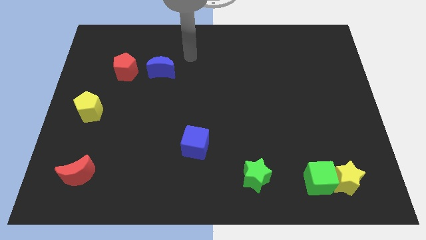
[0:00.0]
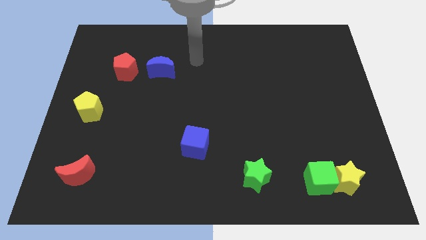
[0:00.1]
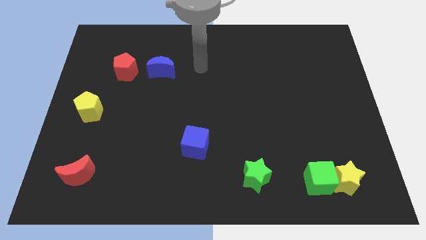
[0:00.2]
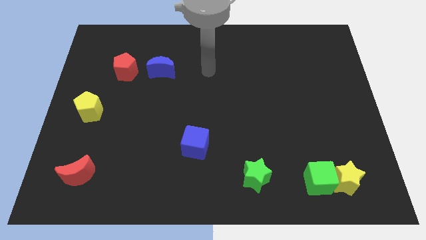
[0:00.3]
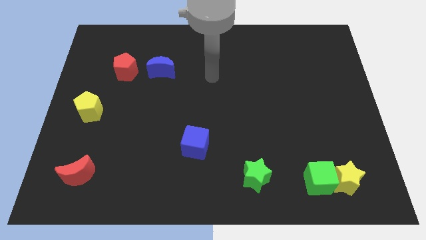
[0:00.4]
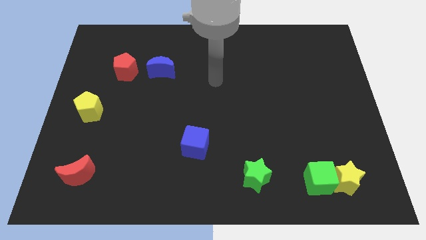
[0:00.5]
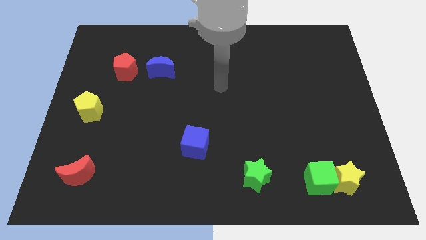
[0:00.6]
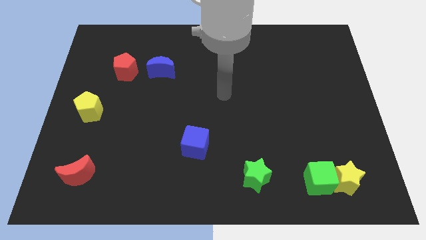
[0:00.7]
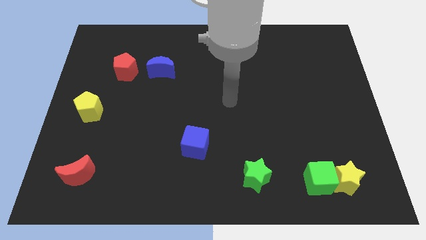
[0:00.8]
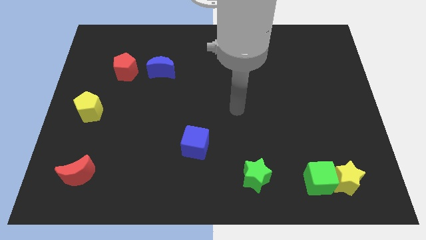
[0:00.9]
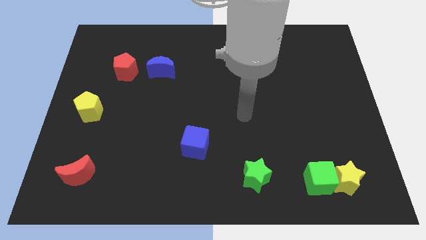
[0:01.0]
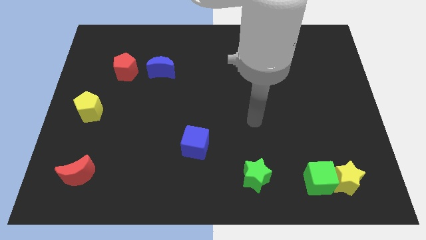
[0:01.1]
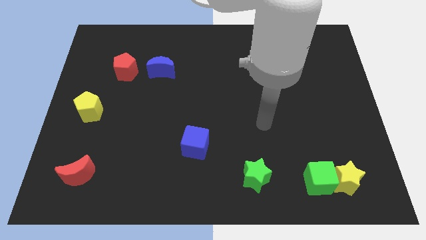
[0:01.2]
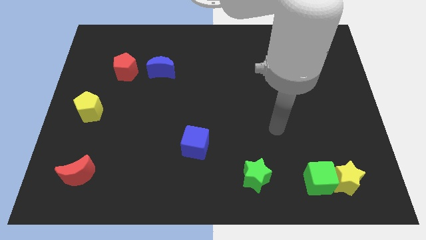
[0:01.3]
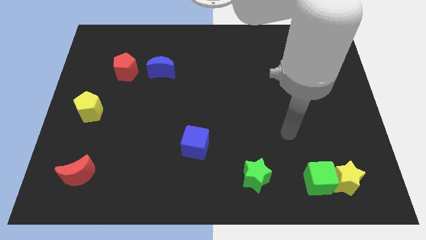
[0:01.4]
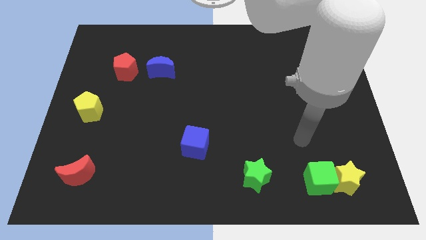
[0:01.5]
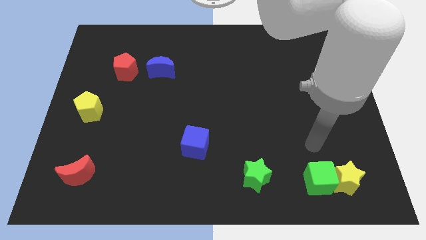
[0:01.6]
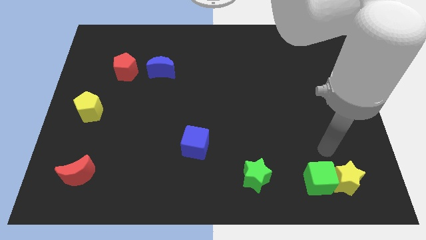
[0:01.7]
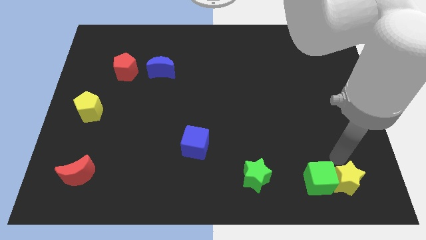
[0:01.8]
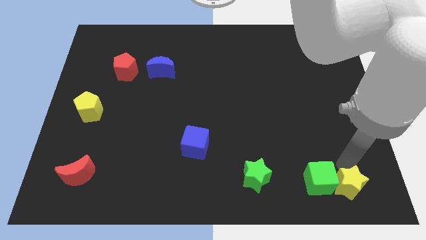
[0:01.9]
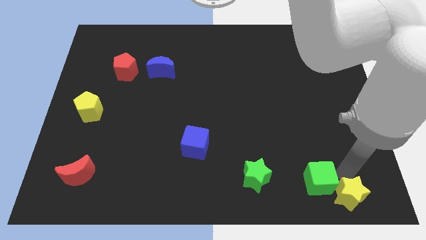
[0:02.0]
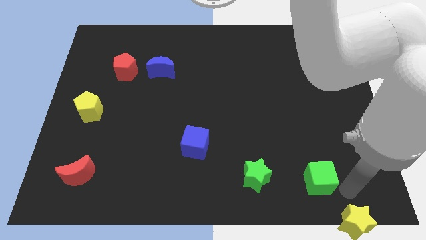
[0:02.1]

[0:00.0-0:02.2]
move the green cube away from the yellow star

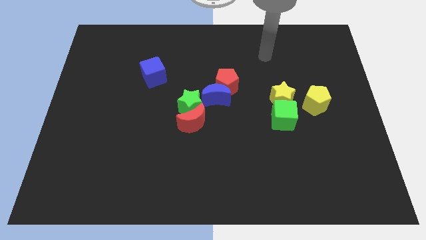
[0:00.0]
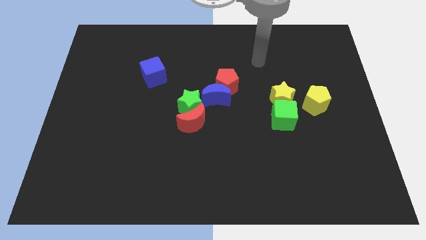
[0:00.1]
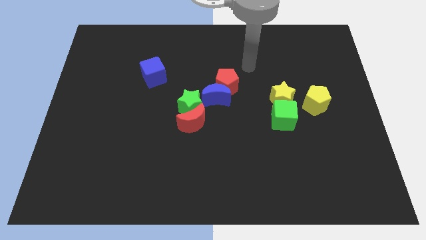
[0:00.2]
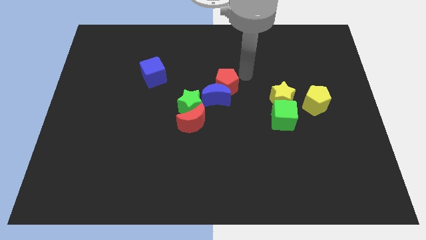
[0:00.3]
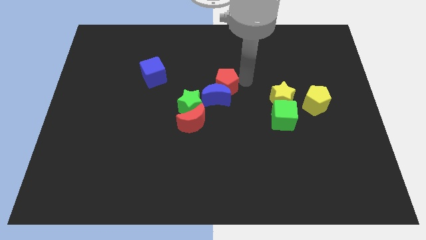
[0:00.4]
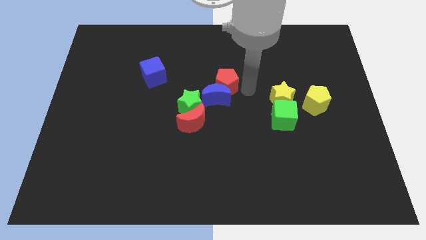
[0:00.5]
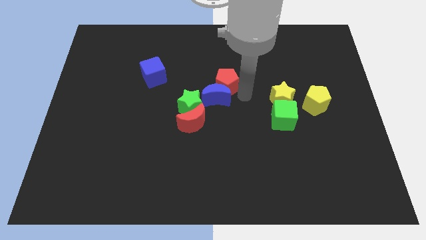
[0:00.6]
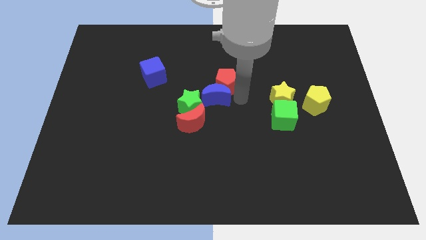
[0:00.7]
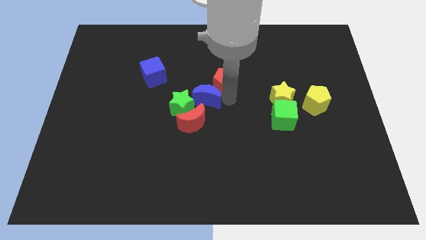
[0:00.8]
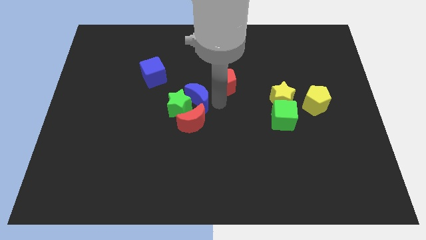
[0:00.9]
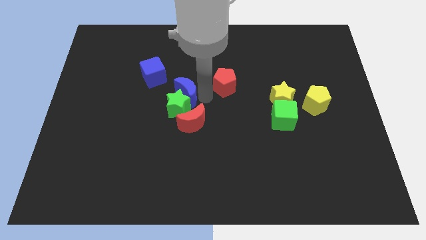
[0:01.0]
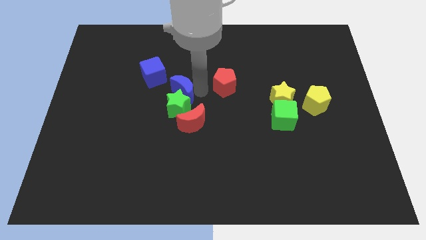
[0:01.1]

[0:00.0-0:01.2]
pull the red pentagon apart from the blue moon

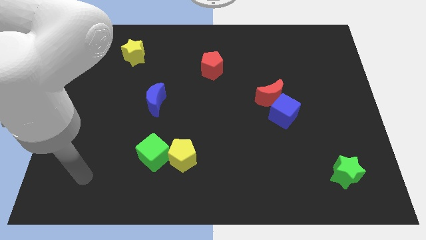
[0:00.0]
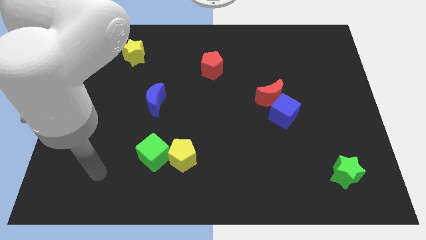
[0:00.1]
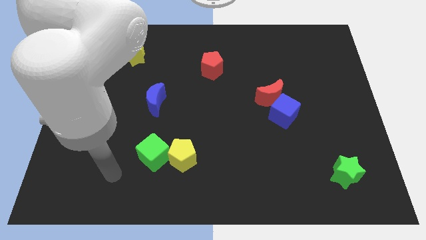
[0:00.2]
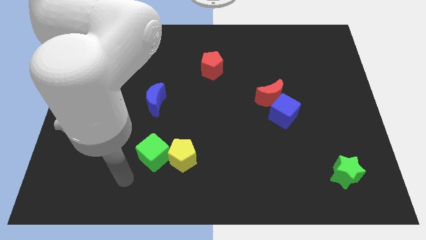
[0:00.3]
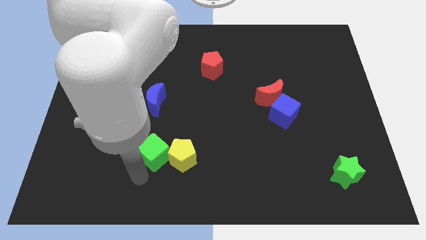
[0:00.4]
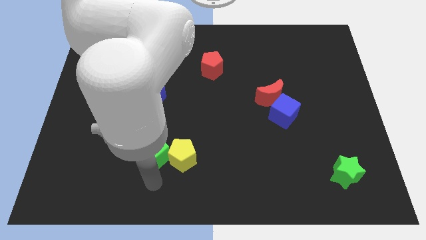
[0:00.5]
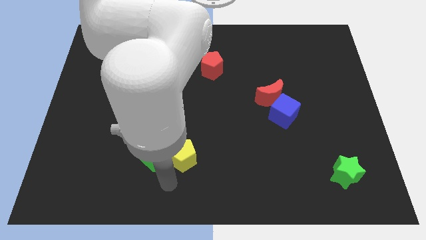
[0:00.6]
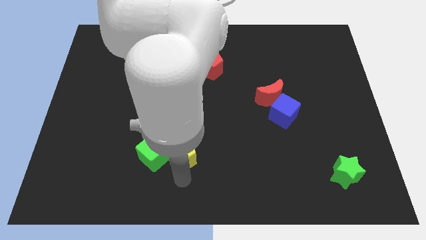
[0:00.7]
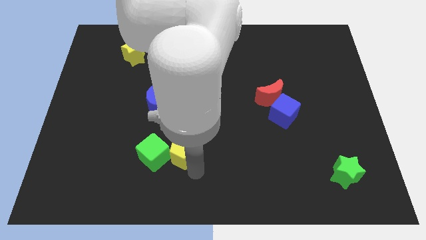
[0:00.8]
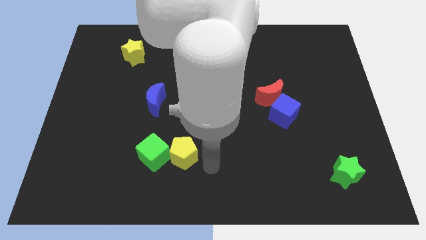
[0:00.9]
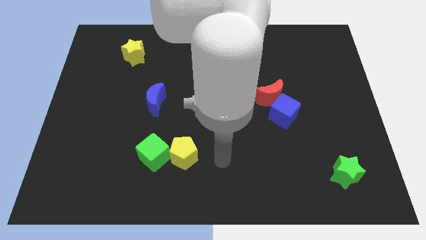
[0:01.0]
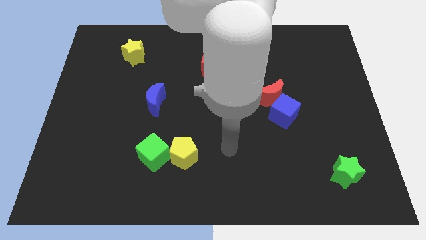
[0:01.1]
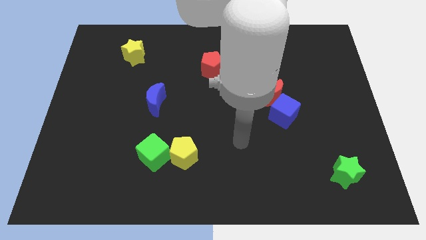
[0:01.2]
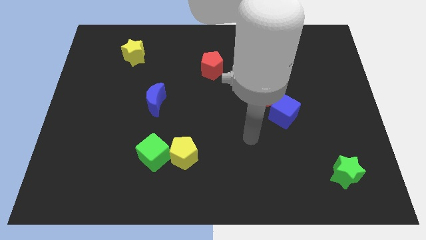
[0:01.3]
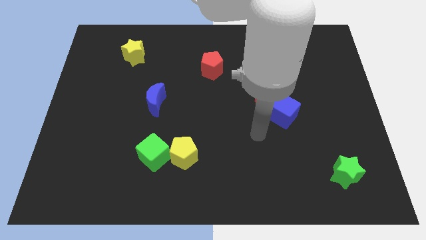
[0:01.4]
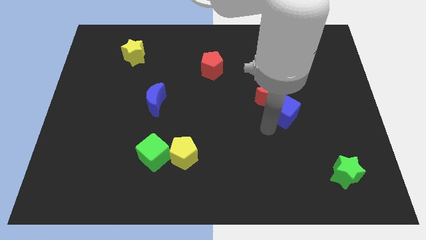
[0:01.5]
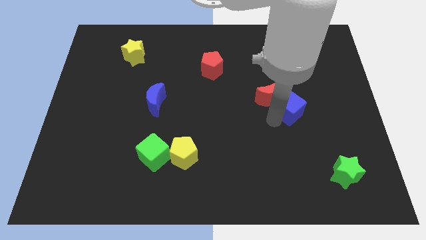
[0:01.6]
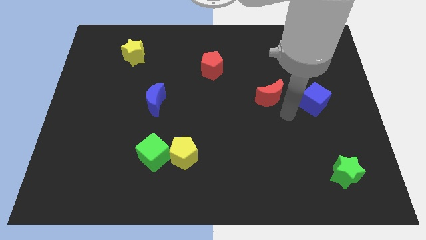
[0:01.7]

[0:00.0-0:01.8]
separate the red moon from the blue cube

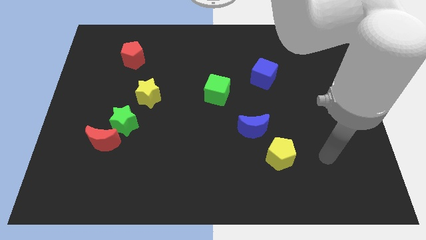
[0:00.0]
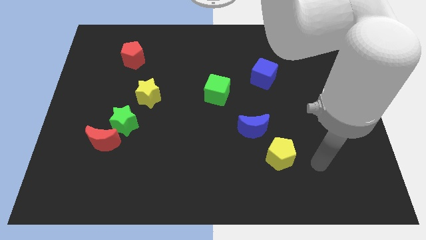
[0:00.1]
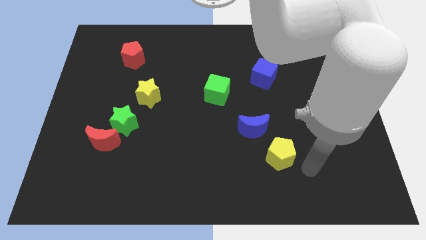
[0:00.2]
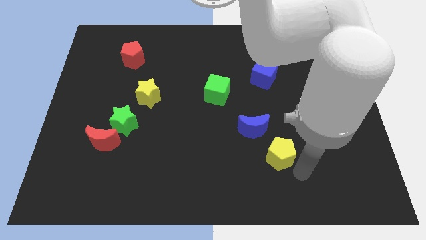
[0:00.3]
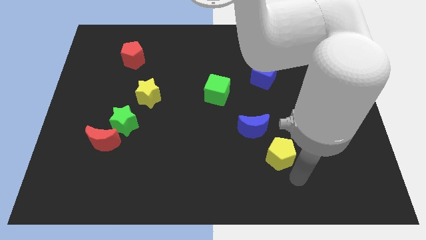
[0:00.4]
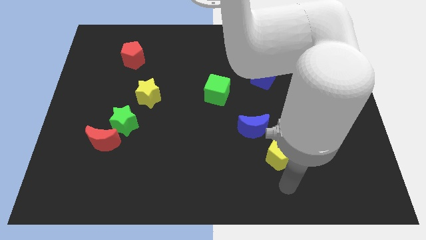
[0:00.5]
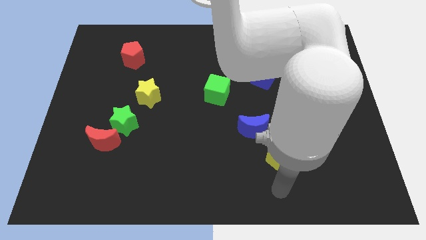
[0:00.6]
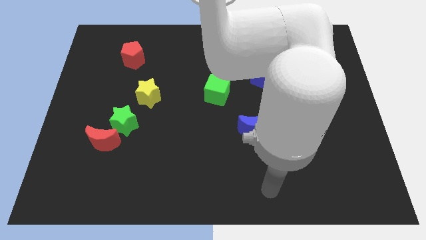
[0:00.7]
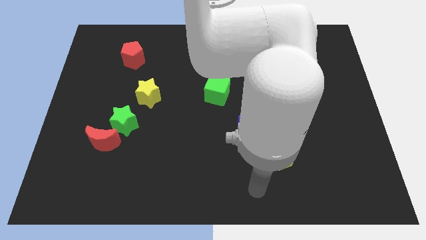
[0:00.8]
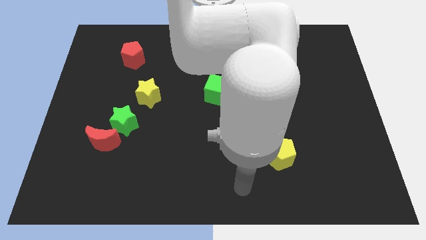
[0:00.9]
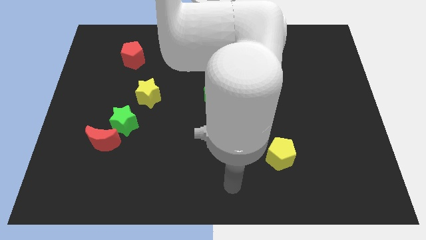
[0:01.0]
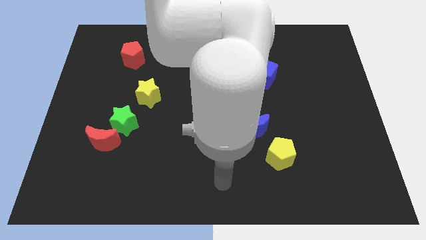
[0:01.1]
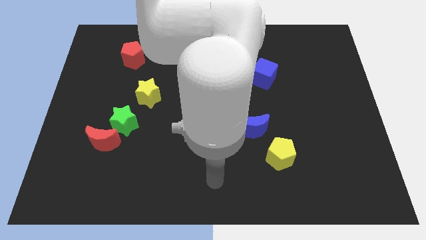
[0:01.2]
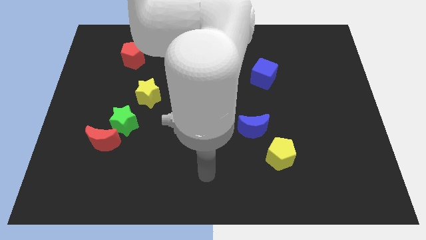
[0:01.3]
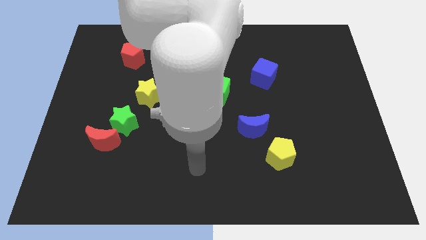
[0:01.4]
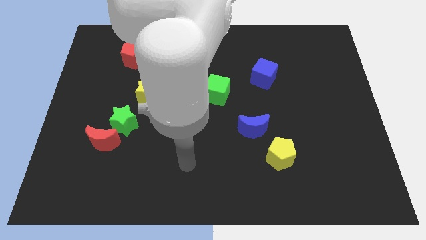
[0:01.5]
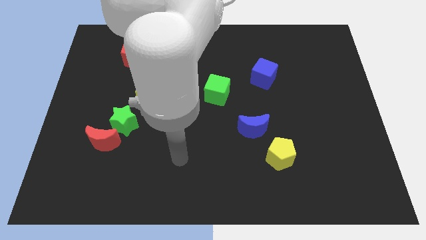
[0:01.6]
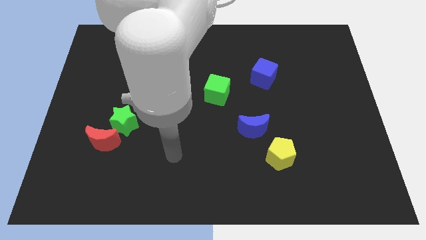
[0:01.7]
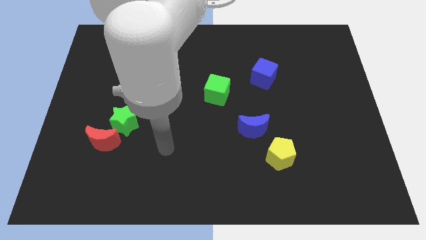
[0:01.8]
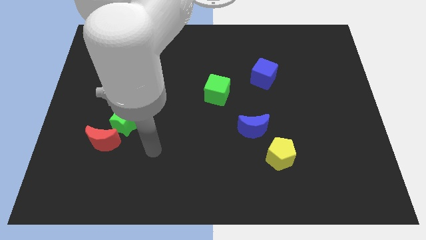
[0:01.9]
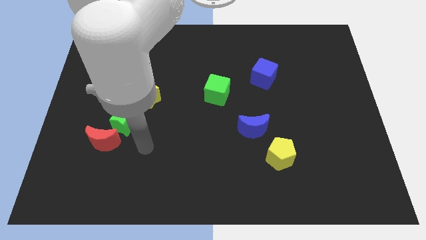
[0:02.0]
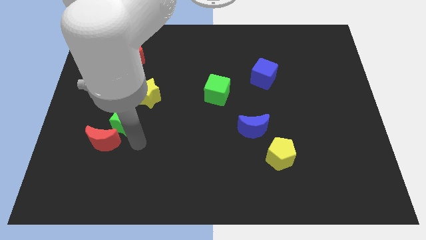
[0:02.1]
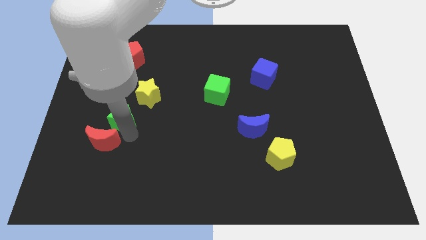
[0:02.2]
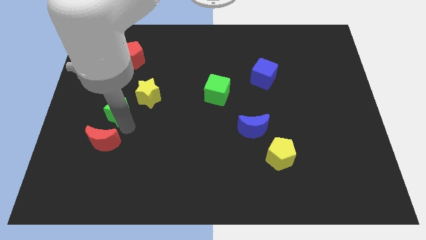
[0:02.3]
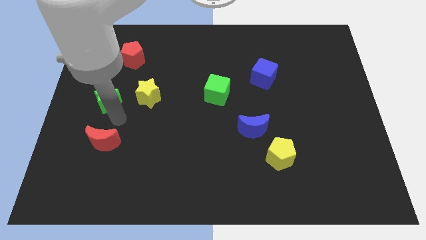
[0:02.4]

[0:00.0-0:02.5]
move the red moon away from the green star

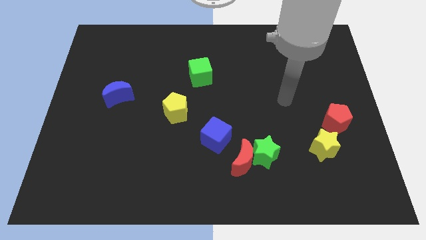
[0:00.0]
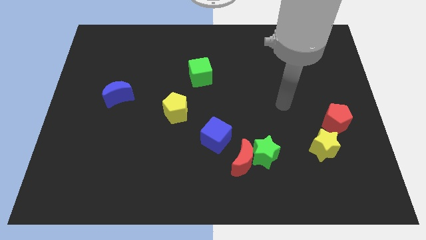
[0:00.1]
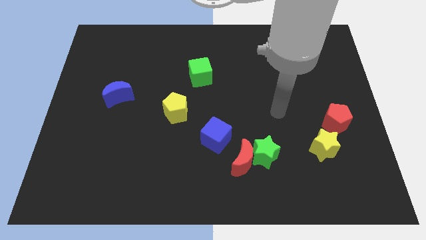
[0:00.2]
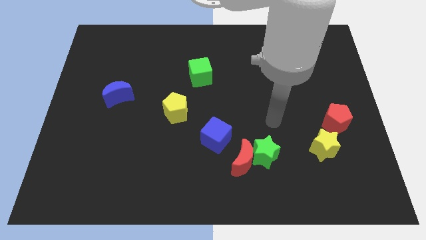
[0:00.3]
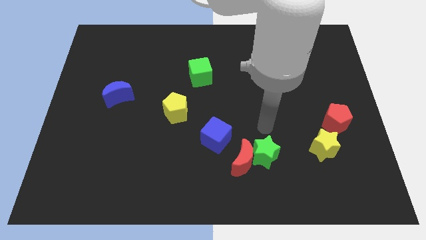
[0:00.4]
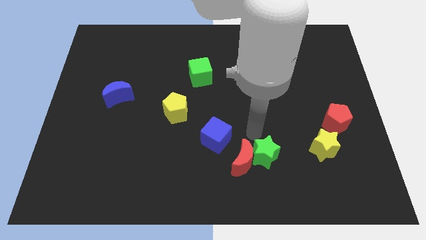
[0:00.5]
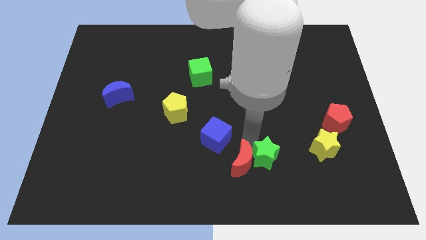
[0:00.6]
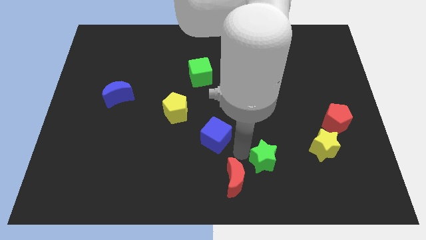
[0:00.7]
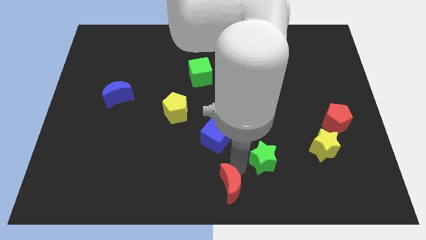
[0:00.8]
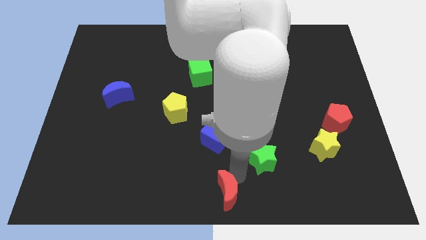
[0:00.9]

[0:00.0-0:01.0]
pull the green star apart from the red moon

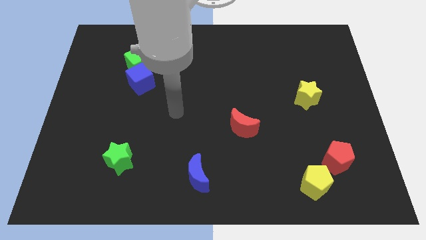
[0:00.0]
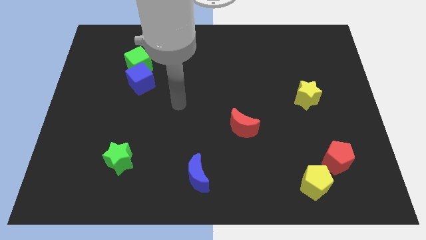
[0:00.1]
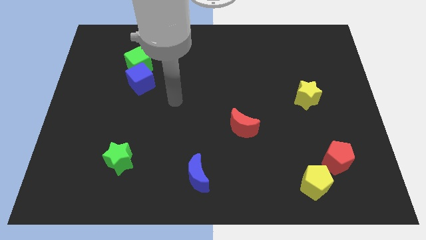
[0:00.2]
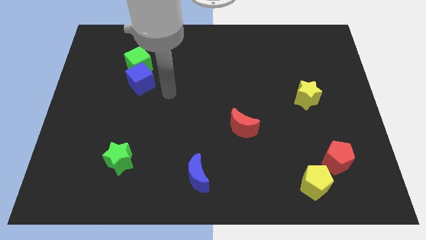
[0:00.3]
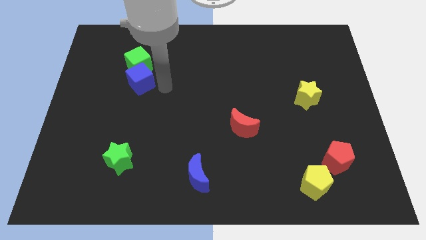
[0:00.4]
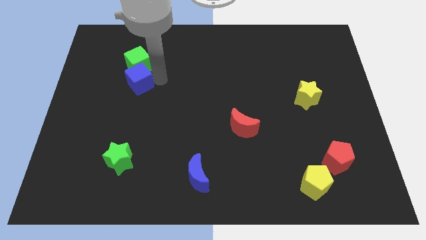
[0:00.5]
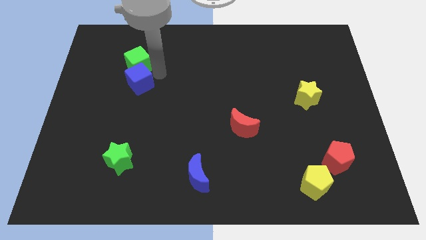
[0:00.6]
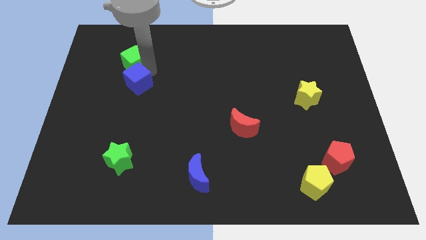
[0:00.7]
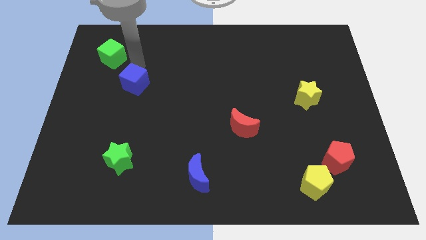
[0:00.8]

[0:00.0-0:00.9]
pull the blue cube apart from the green cube
